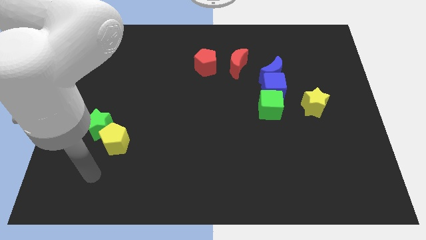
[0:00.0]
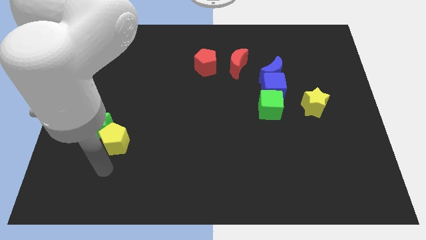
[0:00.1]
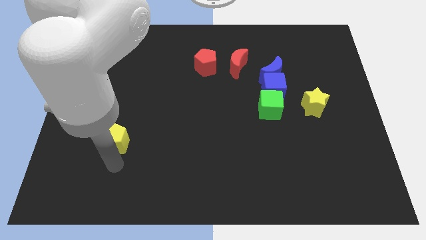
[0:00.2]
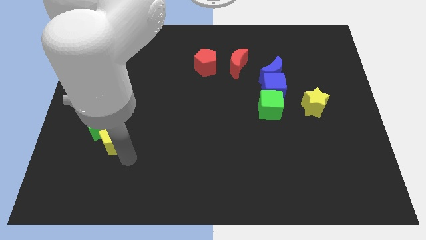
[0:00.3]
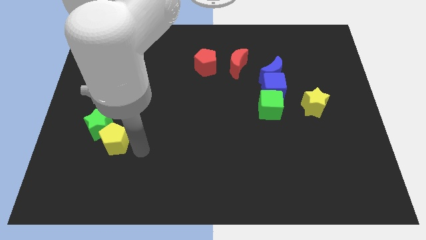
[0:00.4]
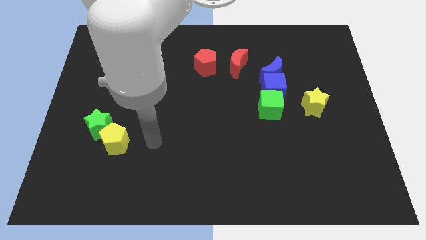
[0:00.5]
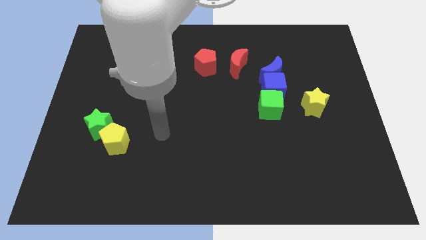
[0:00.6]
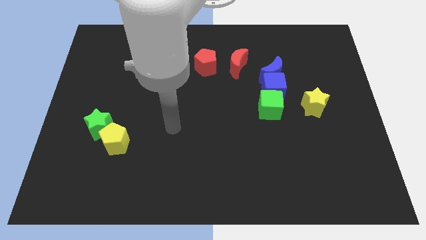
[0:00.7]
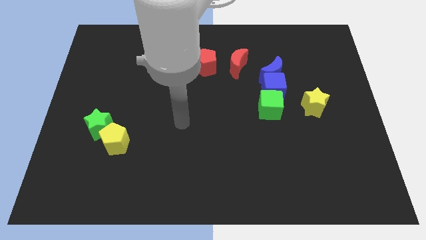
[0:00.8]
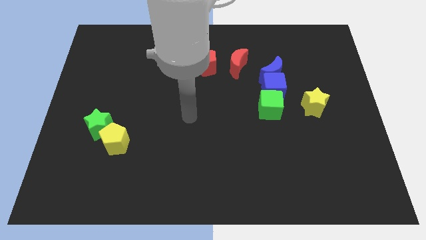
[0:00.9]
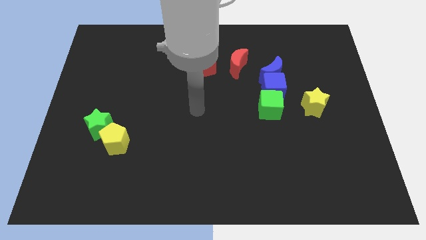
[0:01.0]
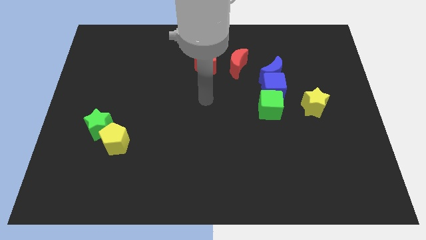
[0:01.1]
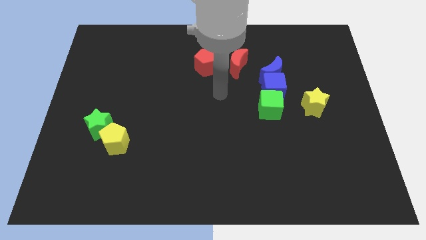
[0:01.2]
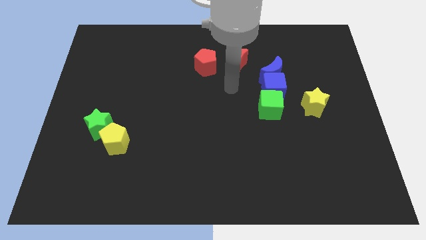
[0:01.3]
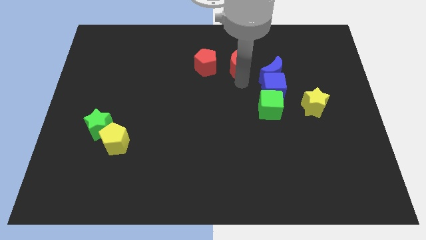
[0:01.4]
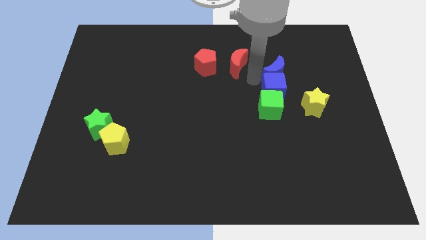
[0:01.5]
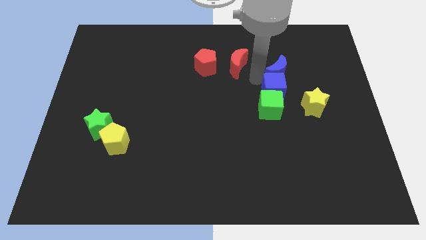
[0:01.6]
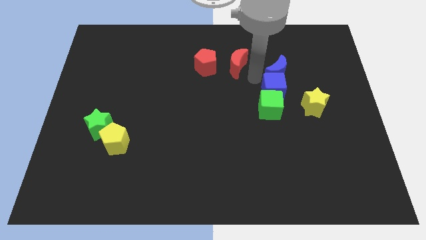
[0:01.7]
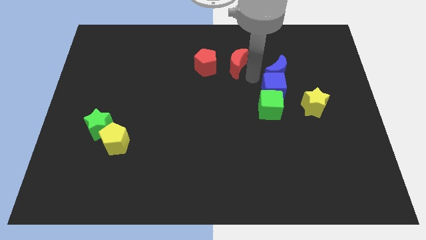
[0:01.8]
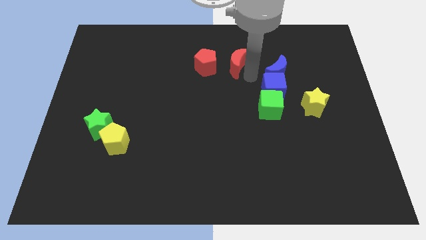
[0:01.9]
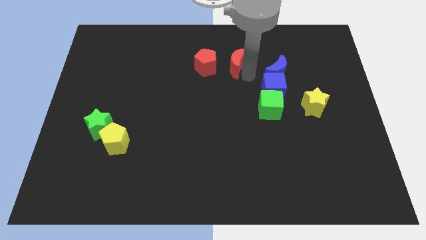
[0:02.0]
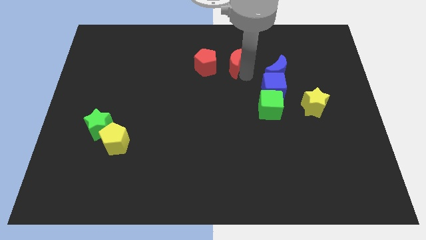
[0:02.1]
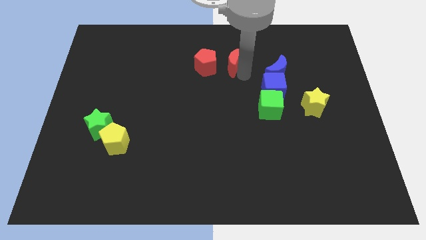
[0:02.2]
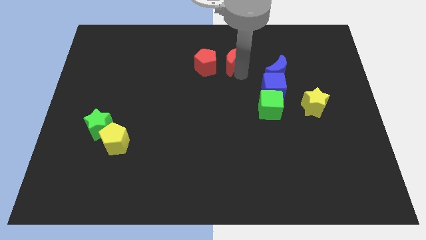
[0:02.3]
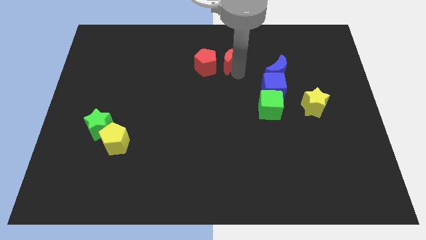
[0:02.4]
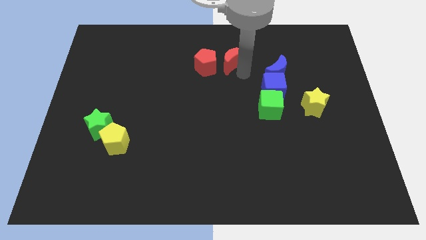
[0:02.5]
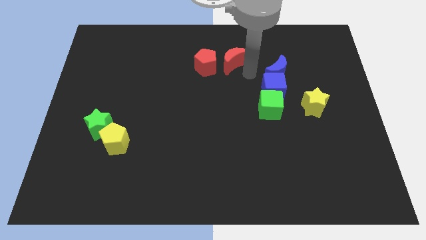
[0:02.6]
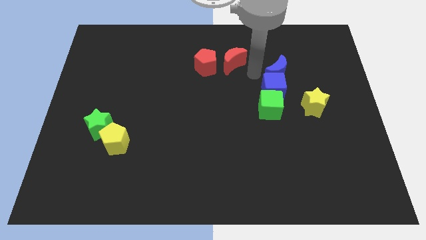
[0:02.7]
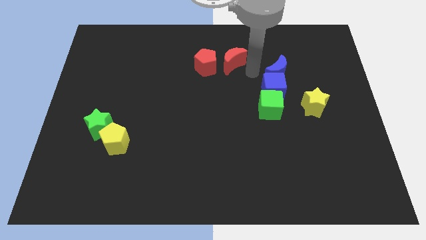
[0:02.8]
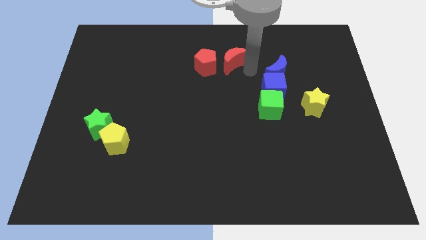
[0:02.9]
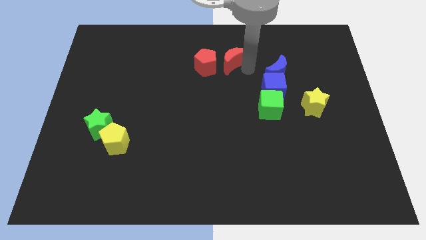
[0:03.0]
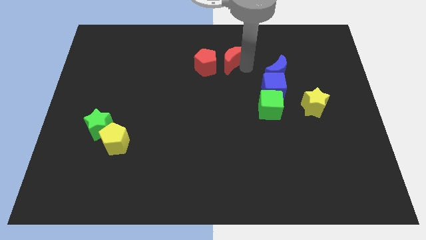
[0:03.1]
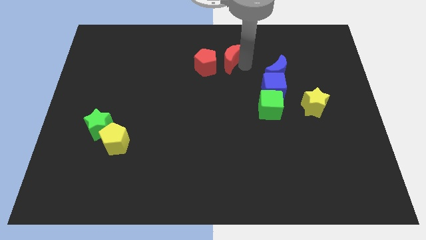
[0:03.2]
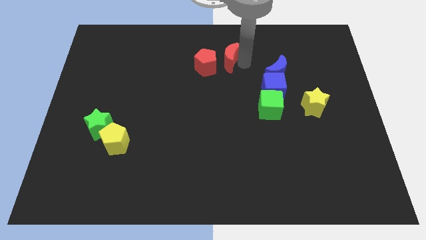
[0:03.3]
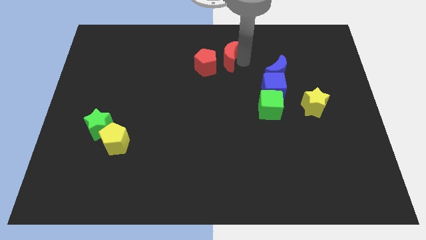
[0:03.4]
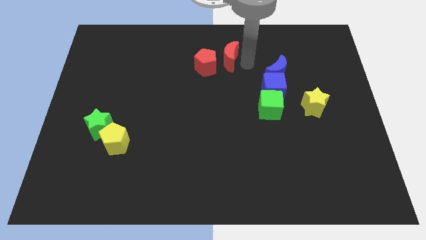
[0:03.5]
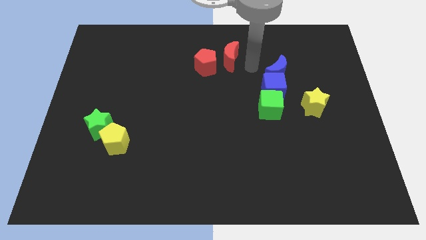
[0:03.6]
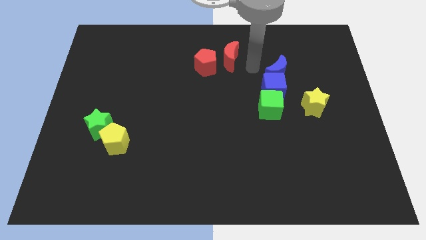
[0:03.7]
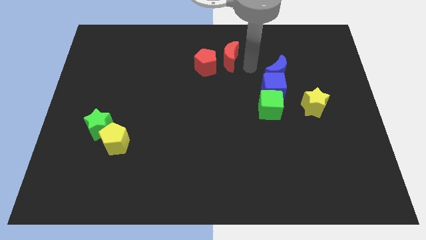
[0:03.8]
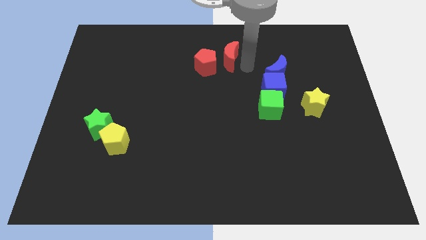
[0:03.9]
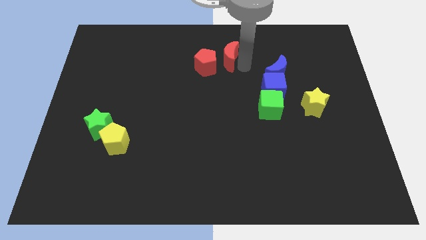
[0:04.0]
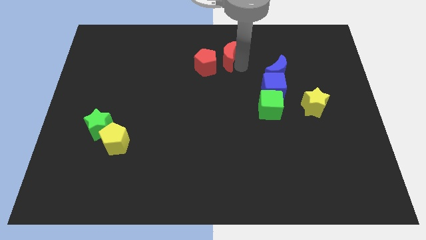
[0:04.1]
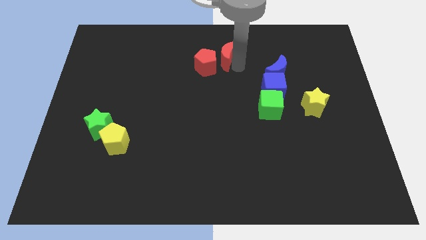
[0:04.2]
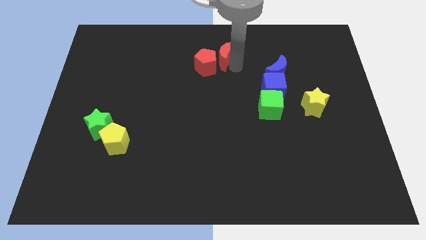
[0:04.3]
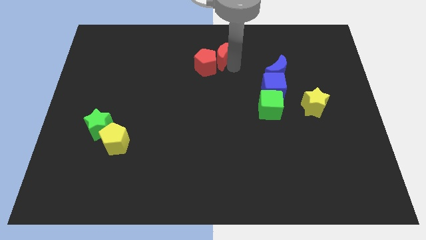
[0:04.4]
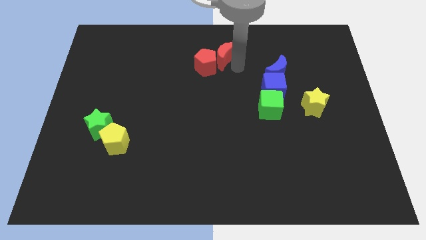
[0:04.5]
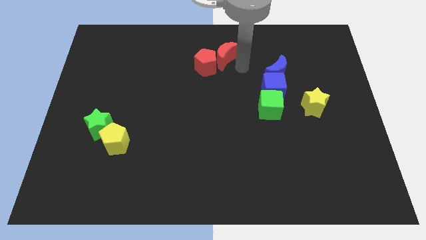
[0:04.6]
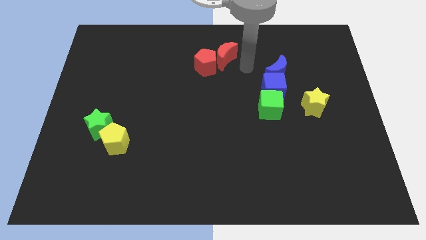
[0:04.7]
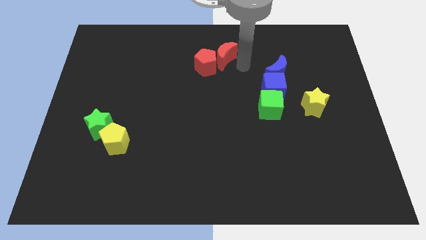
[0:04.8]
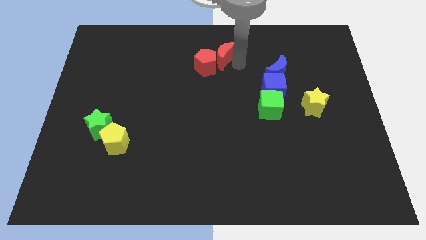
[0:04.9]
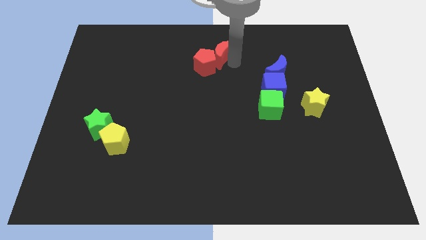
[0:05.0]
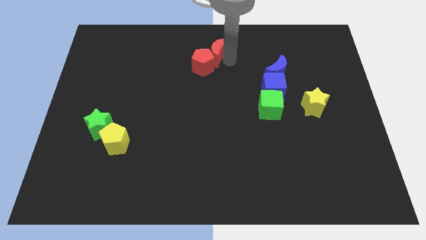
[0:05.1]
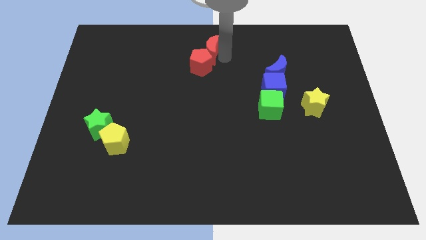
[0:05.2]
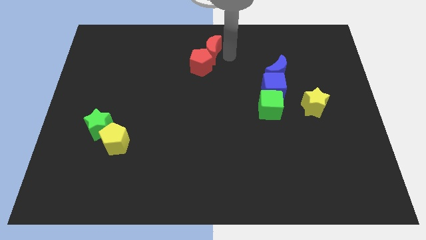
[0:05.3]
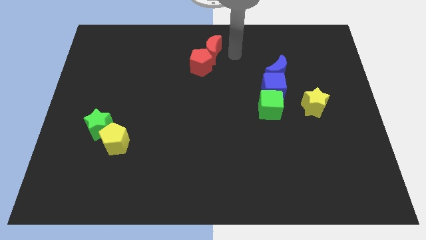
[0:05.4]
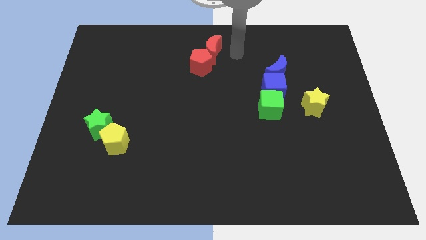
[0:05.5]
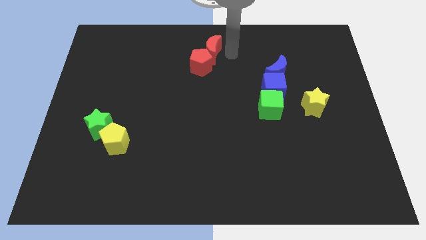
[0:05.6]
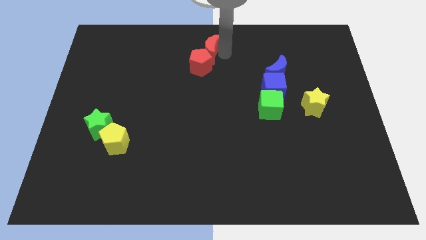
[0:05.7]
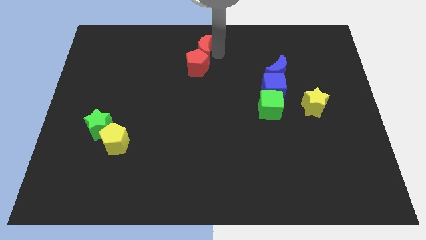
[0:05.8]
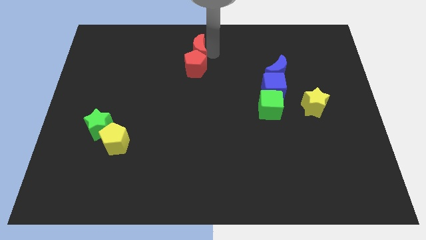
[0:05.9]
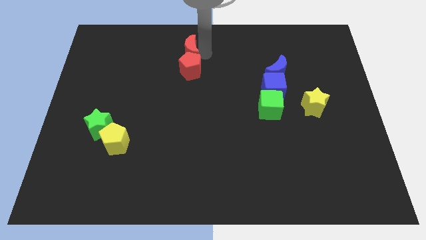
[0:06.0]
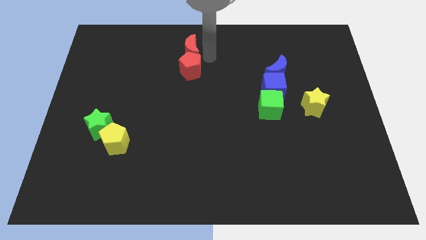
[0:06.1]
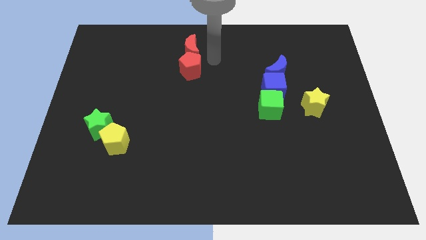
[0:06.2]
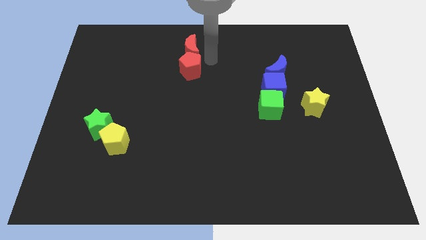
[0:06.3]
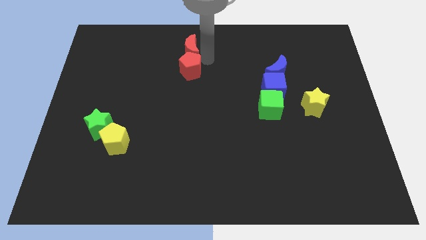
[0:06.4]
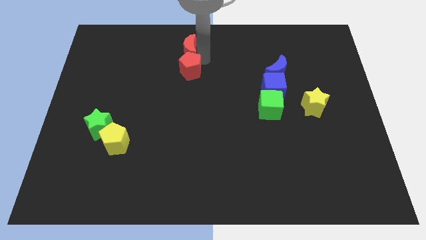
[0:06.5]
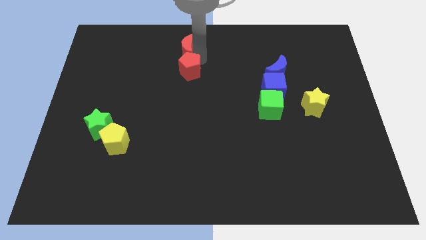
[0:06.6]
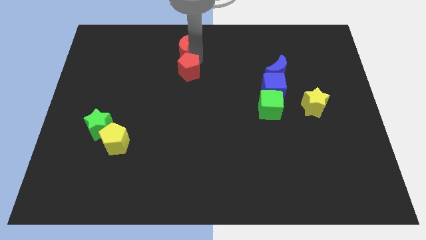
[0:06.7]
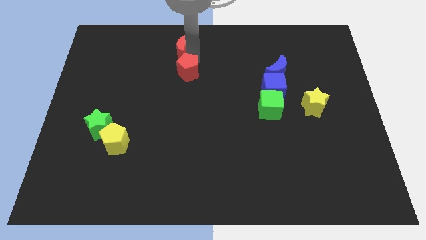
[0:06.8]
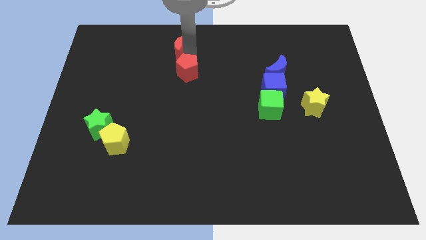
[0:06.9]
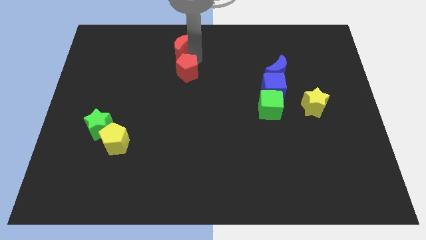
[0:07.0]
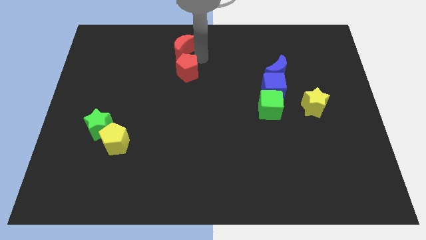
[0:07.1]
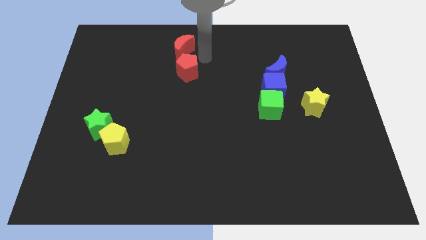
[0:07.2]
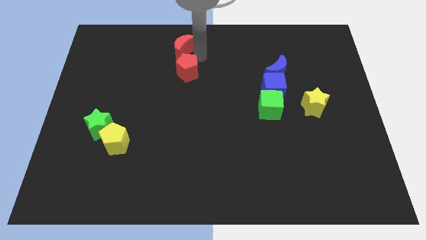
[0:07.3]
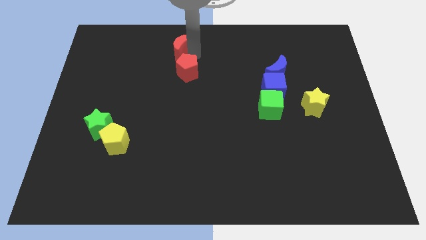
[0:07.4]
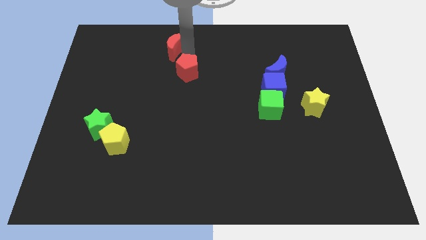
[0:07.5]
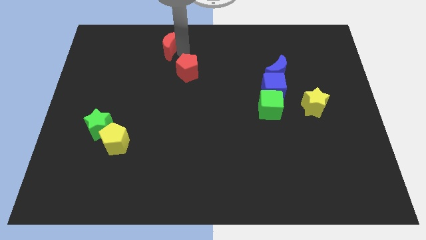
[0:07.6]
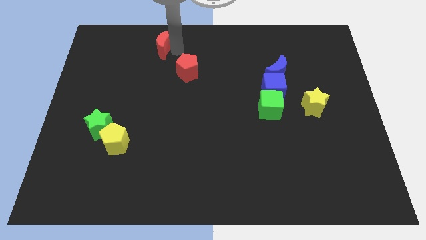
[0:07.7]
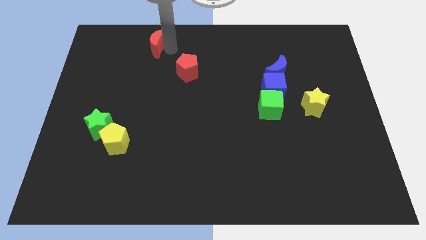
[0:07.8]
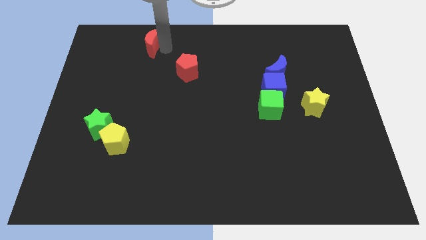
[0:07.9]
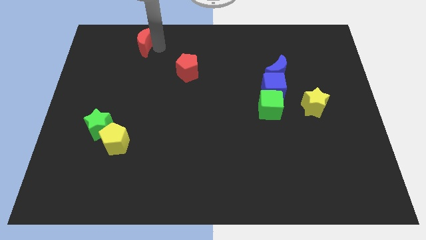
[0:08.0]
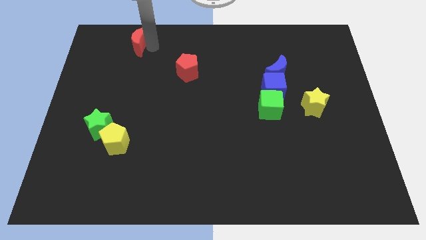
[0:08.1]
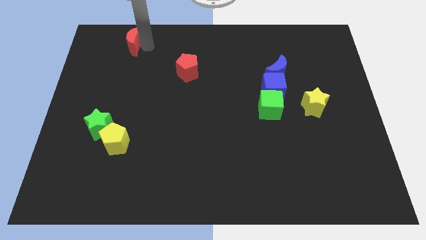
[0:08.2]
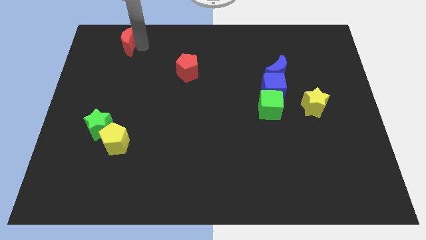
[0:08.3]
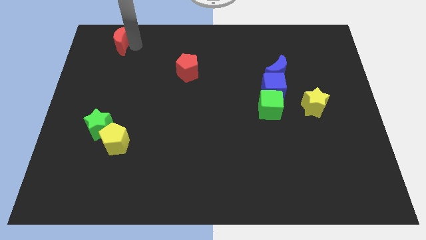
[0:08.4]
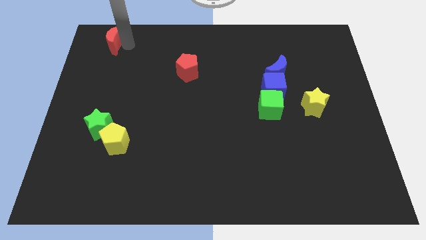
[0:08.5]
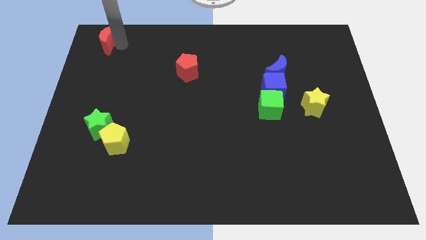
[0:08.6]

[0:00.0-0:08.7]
move the red moon to the top left of the board
